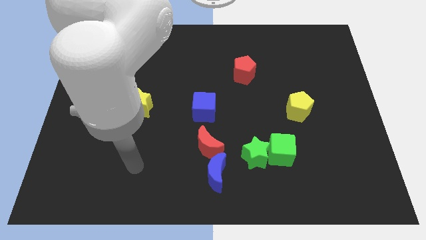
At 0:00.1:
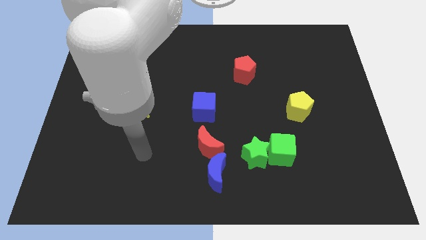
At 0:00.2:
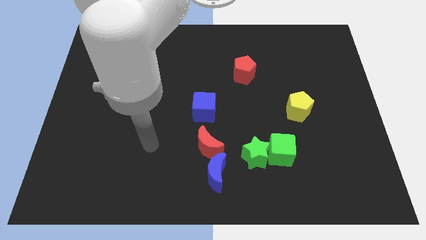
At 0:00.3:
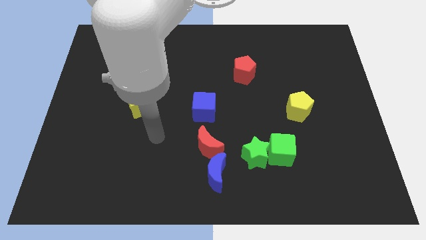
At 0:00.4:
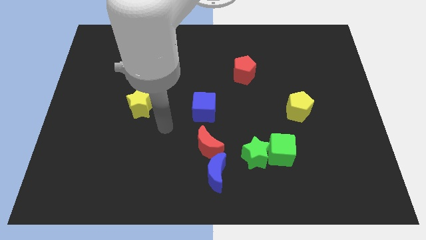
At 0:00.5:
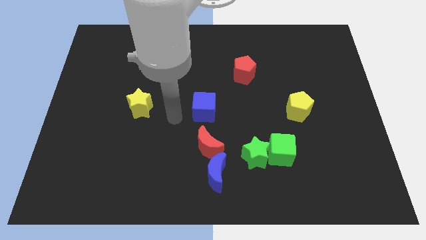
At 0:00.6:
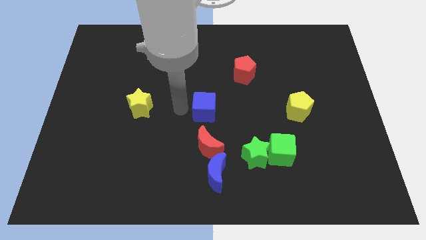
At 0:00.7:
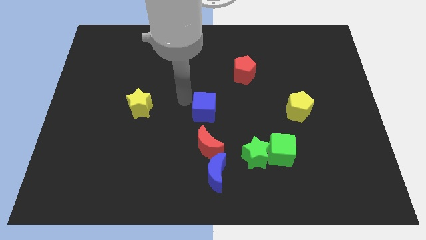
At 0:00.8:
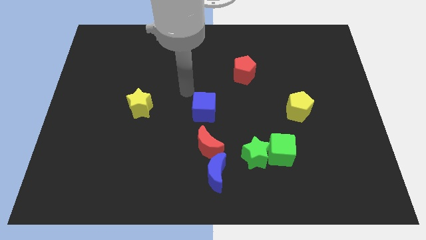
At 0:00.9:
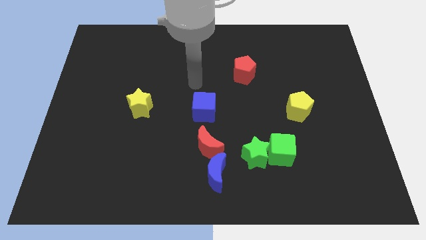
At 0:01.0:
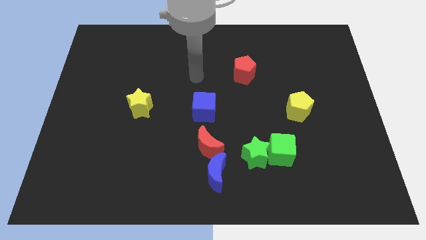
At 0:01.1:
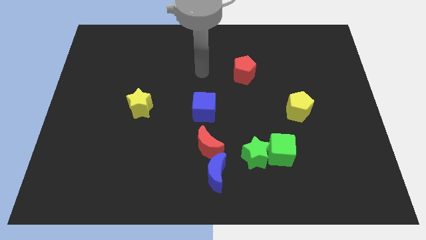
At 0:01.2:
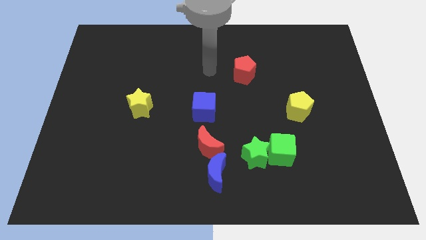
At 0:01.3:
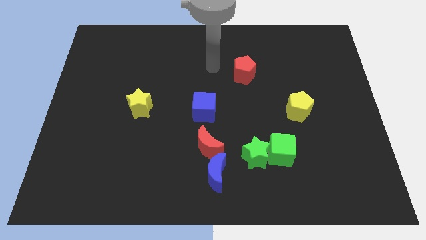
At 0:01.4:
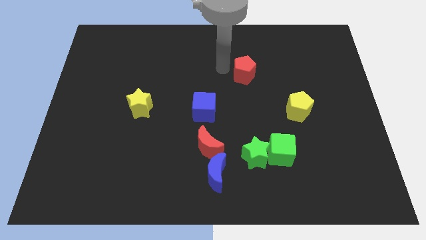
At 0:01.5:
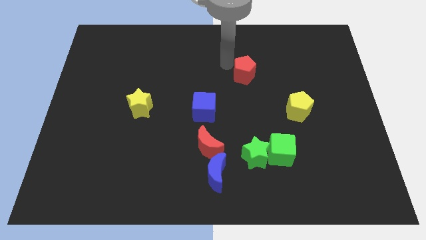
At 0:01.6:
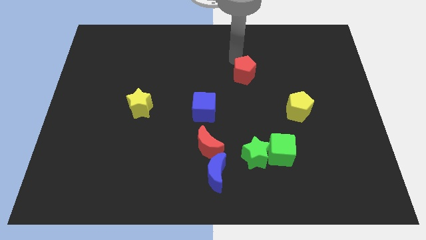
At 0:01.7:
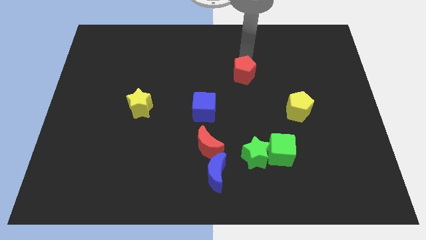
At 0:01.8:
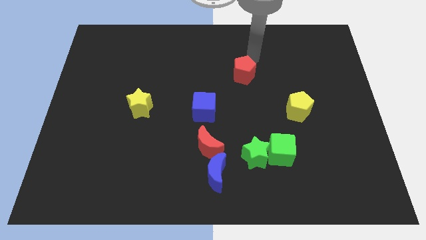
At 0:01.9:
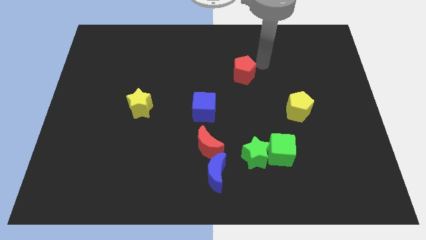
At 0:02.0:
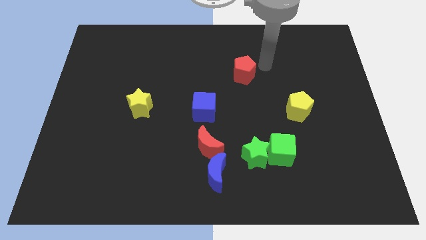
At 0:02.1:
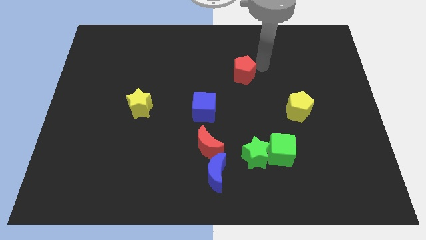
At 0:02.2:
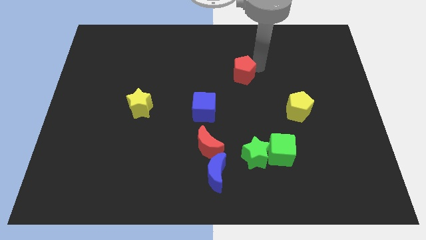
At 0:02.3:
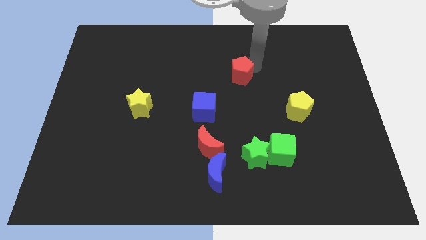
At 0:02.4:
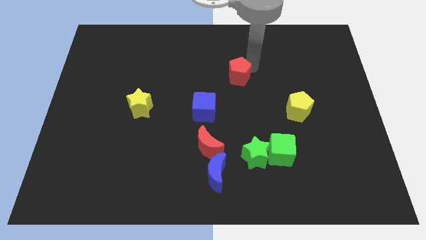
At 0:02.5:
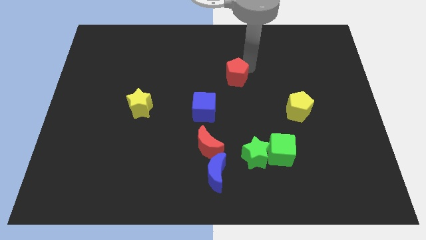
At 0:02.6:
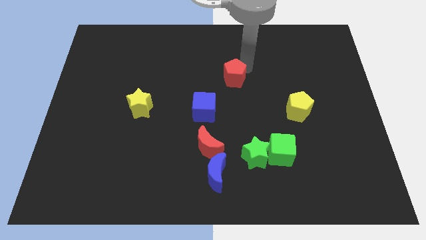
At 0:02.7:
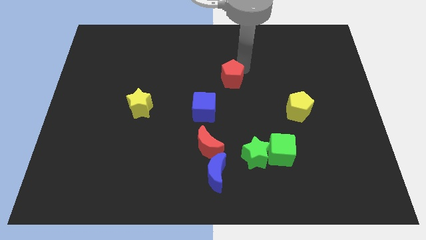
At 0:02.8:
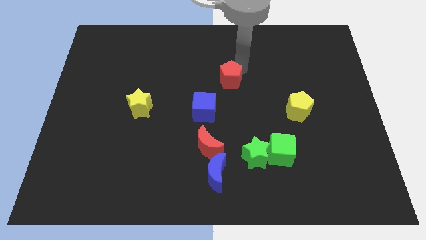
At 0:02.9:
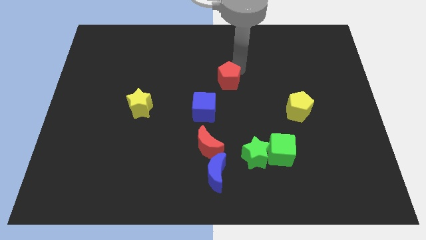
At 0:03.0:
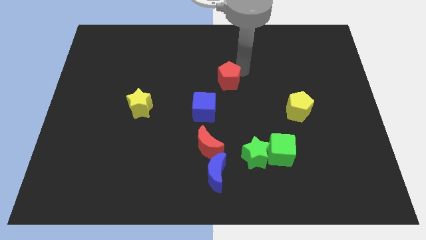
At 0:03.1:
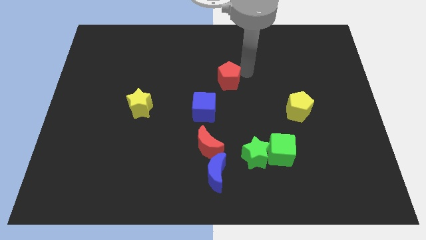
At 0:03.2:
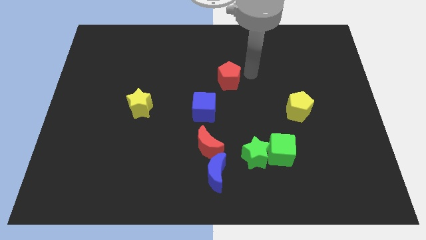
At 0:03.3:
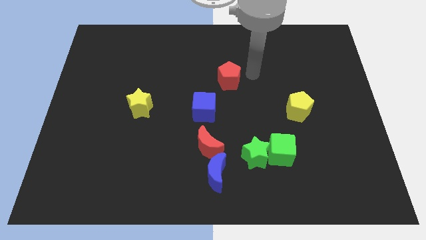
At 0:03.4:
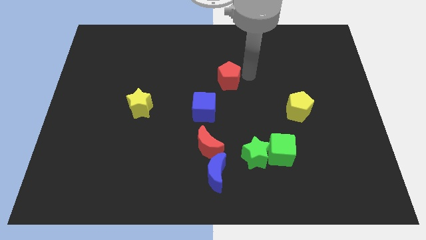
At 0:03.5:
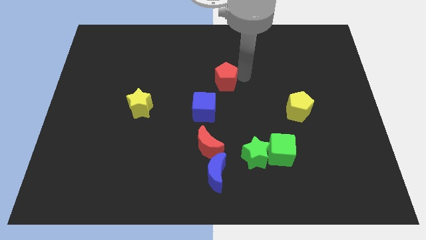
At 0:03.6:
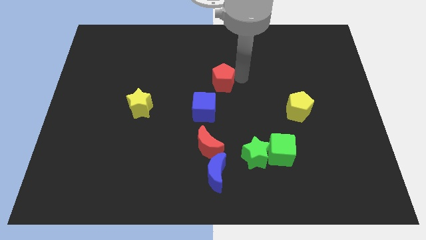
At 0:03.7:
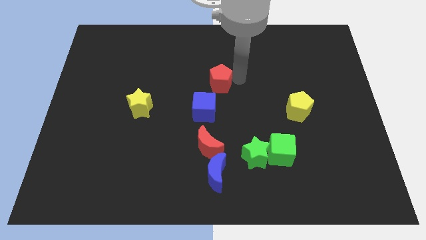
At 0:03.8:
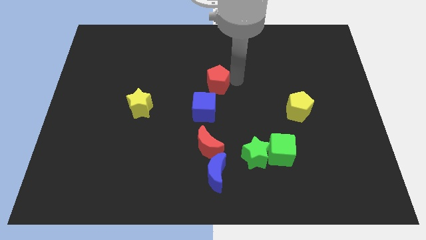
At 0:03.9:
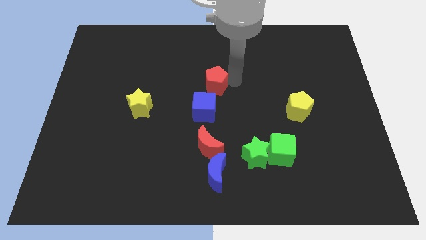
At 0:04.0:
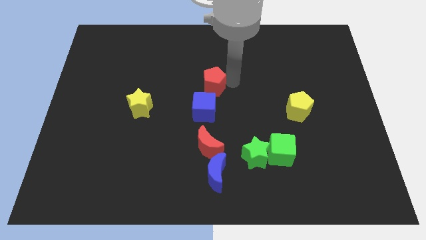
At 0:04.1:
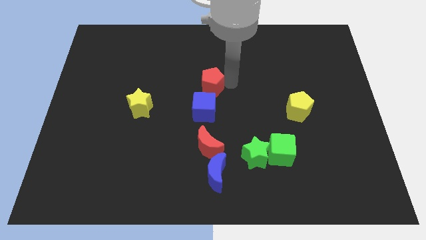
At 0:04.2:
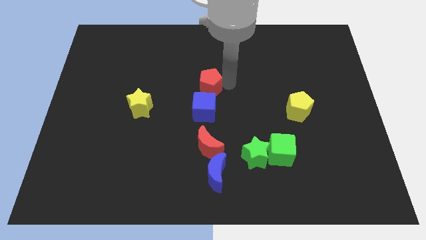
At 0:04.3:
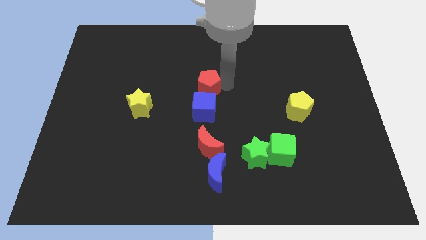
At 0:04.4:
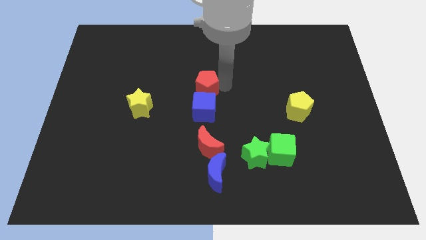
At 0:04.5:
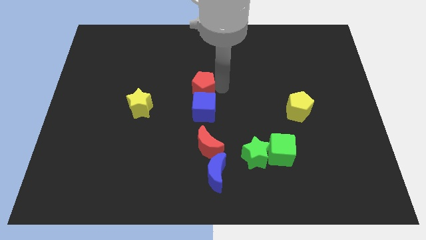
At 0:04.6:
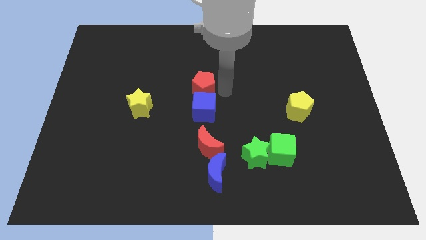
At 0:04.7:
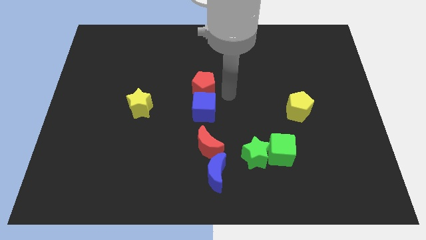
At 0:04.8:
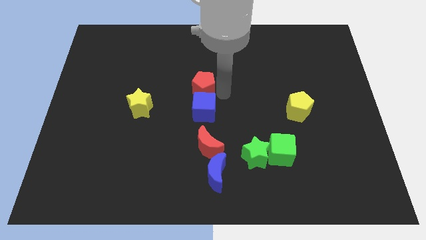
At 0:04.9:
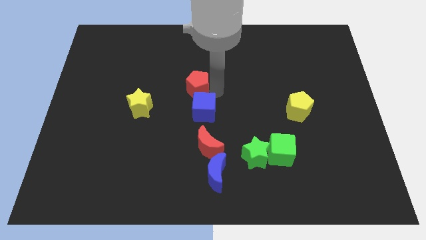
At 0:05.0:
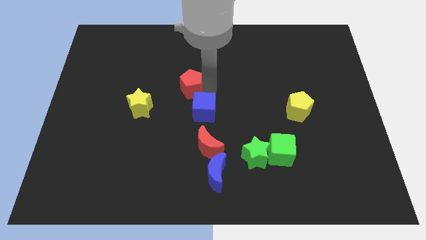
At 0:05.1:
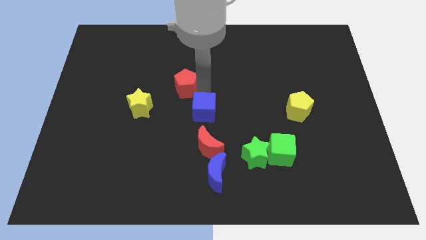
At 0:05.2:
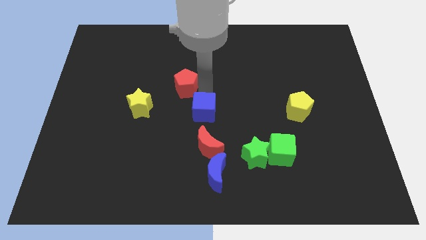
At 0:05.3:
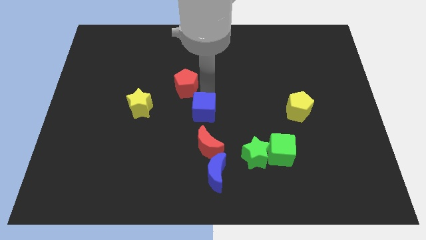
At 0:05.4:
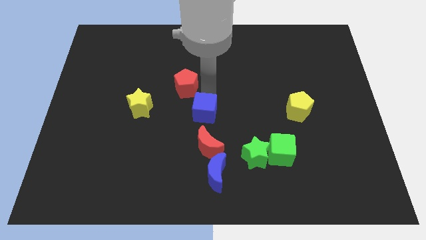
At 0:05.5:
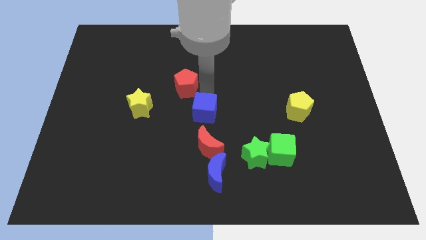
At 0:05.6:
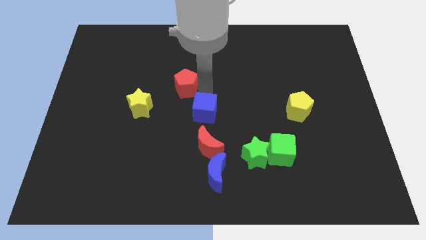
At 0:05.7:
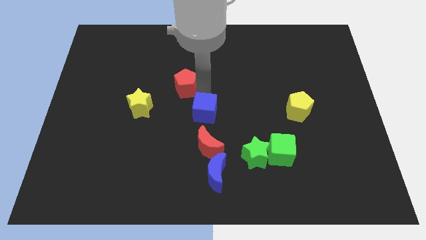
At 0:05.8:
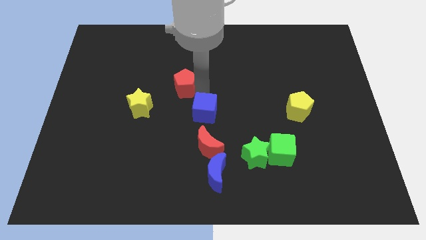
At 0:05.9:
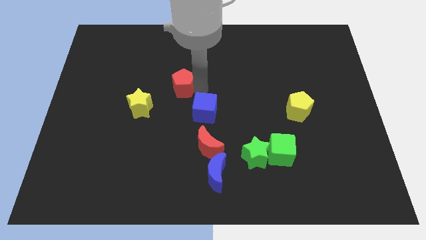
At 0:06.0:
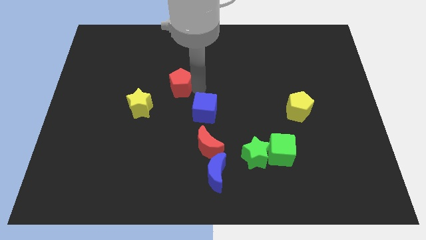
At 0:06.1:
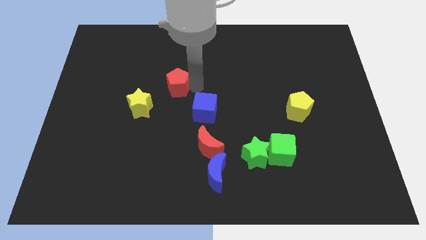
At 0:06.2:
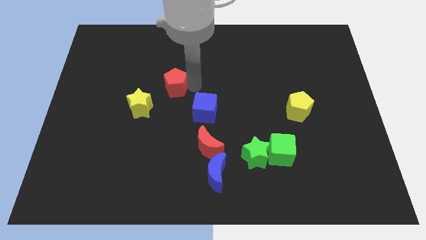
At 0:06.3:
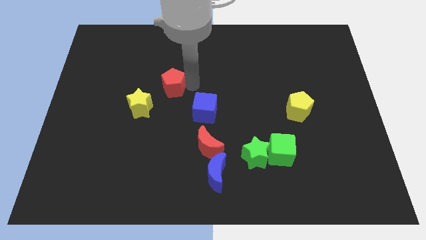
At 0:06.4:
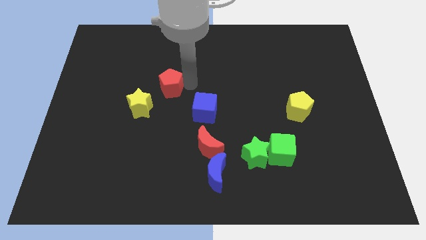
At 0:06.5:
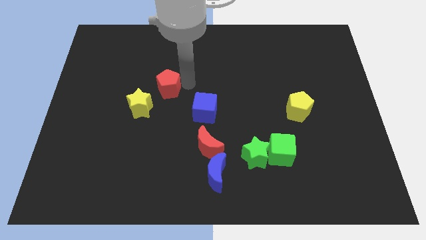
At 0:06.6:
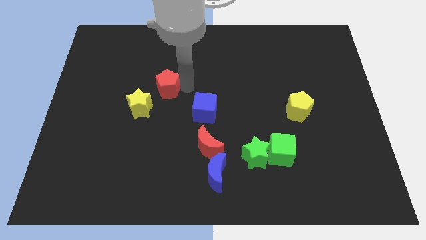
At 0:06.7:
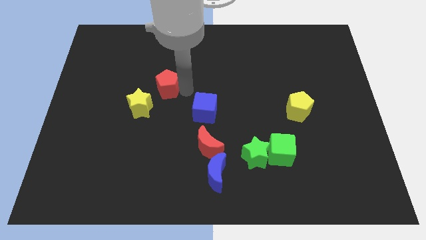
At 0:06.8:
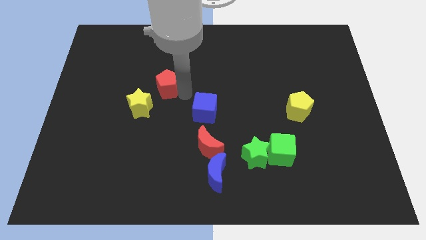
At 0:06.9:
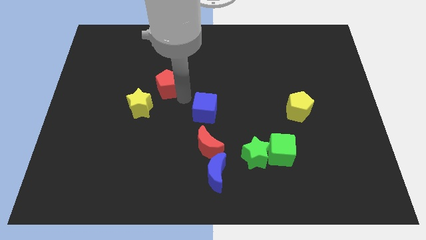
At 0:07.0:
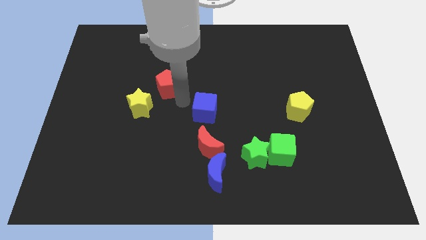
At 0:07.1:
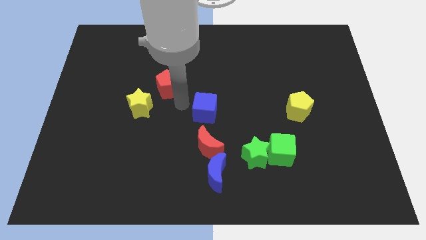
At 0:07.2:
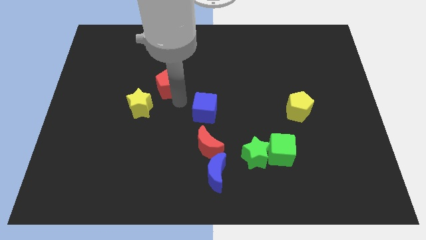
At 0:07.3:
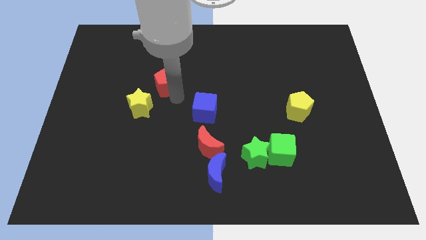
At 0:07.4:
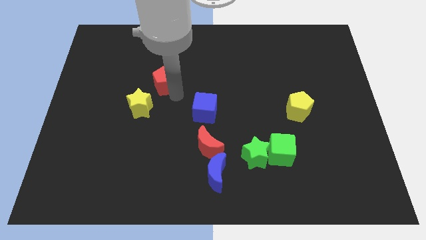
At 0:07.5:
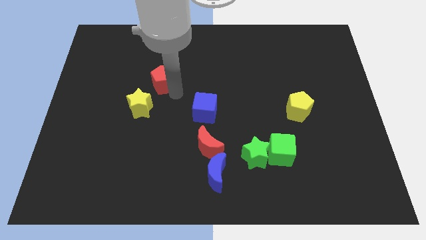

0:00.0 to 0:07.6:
move the red pentagon left

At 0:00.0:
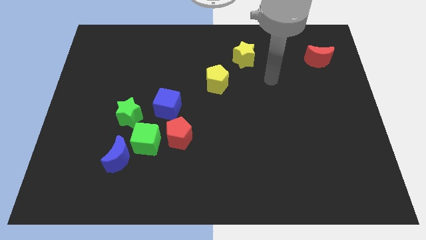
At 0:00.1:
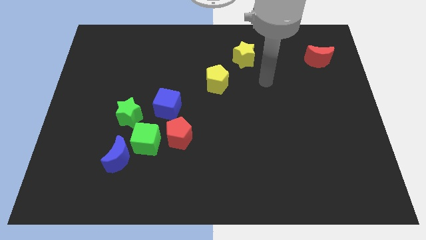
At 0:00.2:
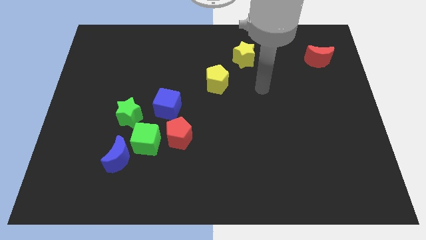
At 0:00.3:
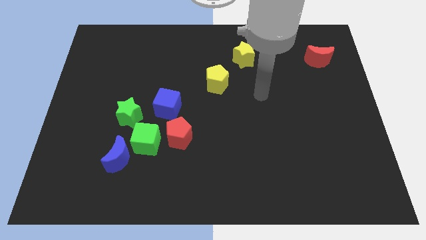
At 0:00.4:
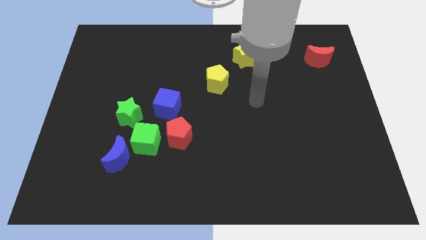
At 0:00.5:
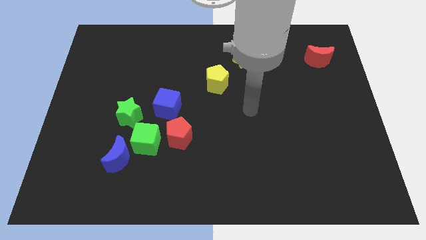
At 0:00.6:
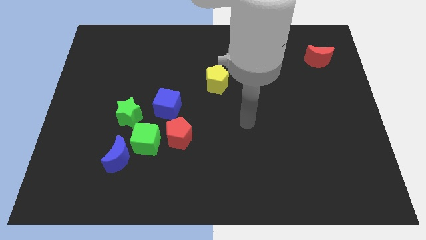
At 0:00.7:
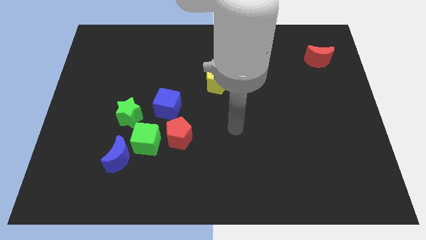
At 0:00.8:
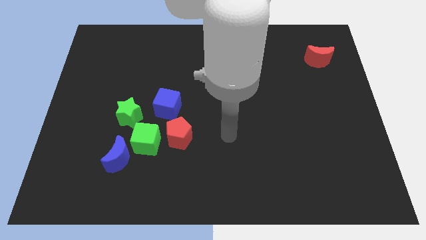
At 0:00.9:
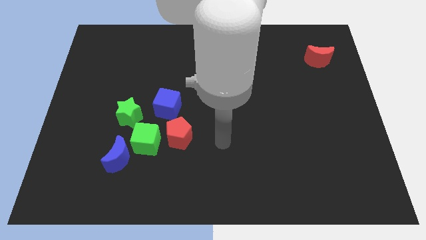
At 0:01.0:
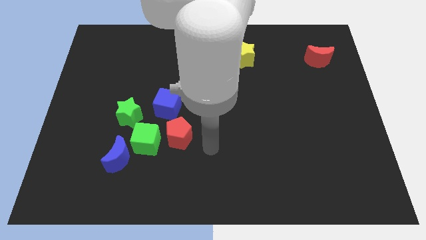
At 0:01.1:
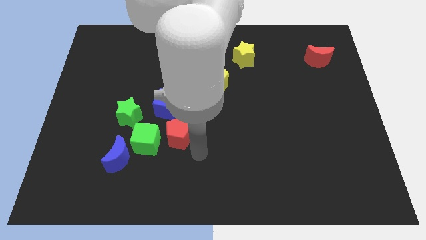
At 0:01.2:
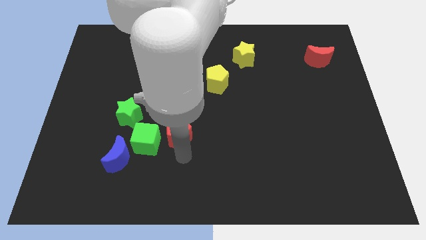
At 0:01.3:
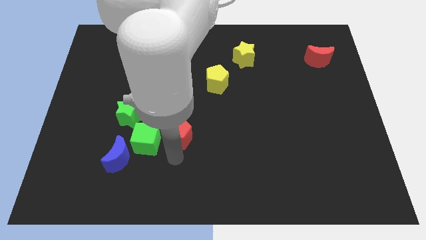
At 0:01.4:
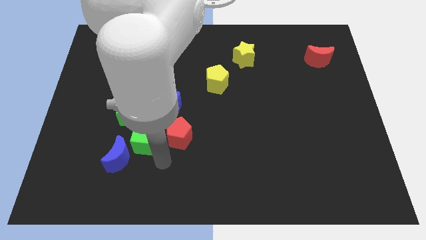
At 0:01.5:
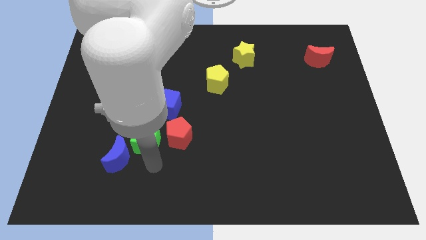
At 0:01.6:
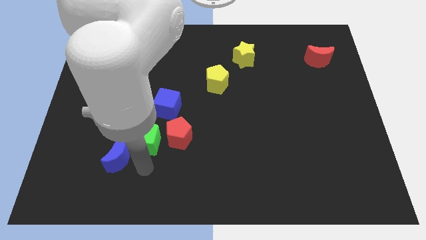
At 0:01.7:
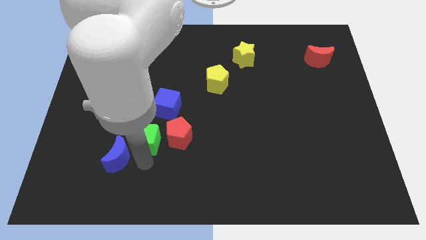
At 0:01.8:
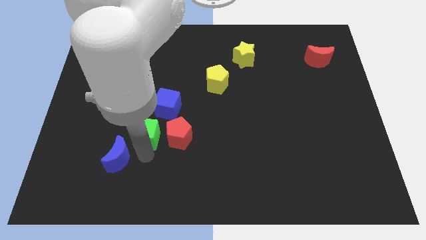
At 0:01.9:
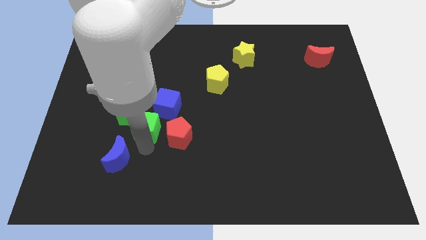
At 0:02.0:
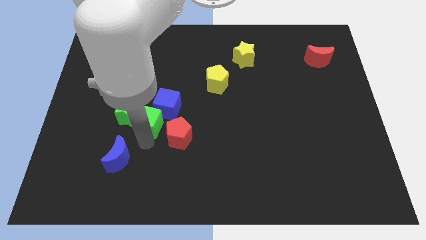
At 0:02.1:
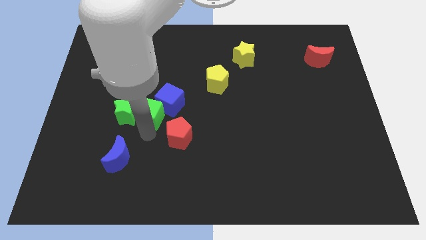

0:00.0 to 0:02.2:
move the green cube a bit up
